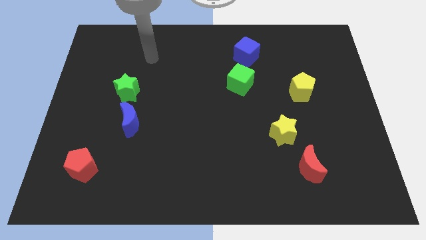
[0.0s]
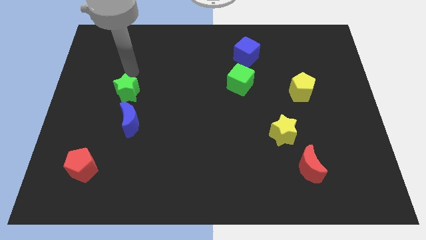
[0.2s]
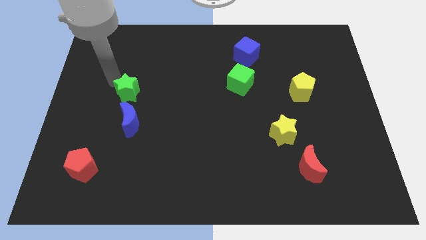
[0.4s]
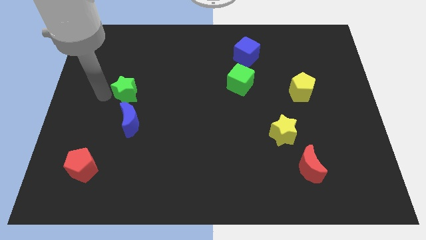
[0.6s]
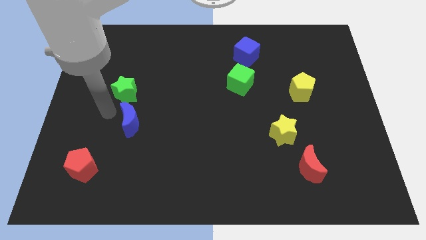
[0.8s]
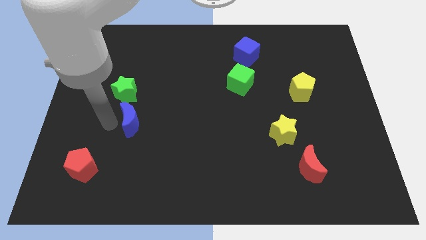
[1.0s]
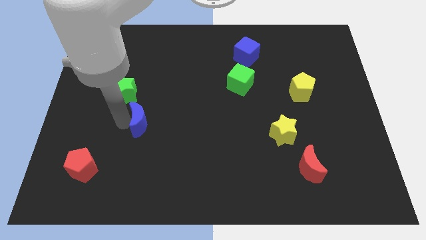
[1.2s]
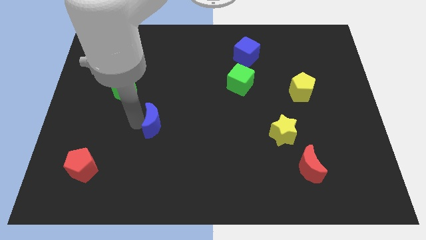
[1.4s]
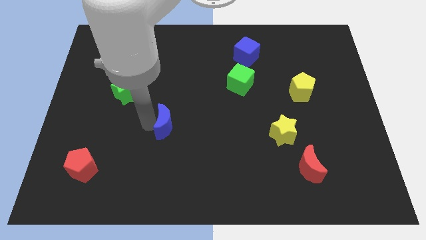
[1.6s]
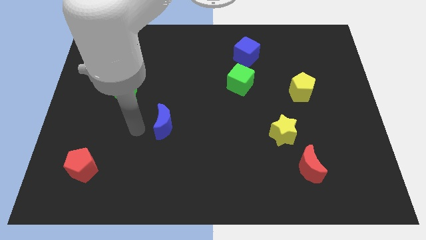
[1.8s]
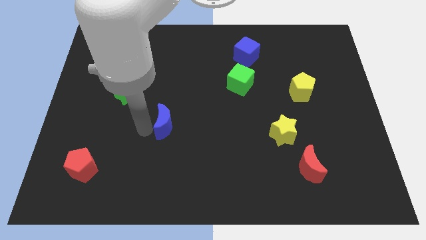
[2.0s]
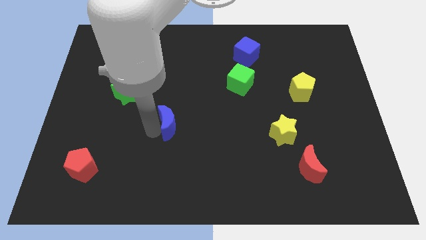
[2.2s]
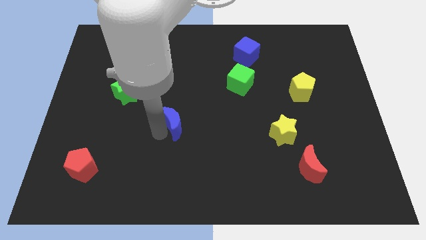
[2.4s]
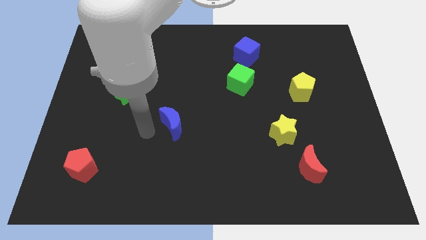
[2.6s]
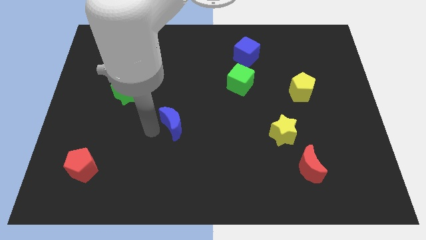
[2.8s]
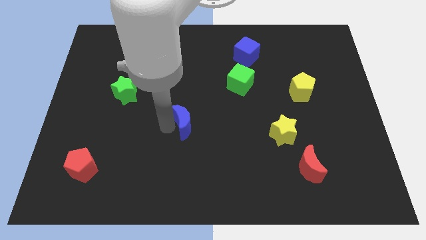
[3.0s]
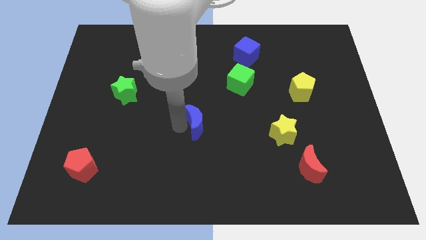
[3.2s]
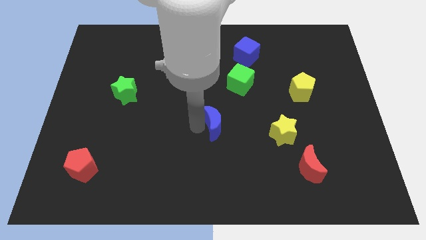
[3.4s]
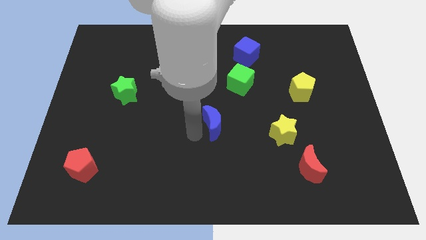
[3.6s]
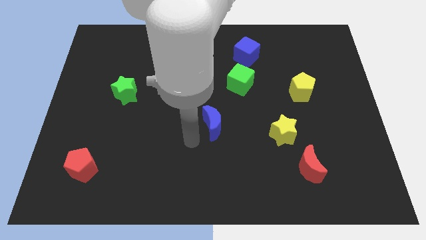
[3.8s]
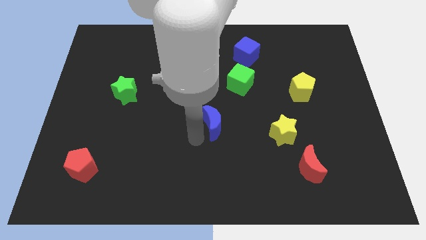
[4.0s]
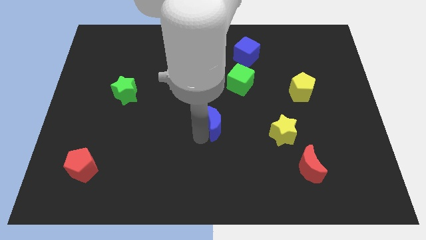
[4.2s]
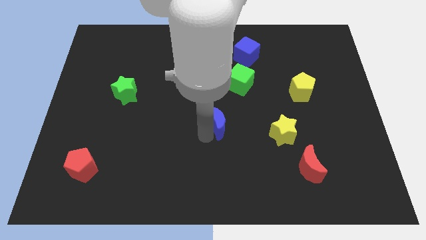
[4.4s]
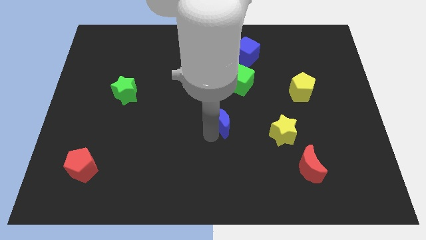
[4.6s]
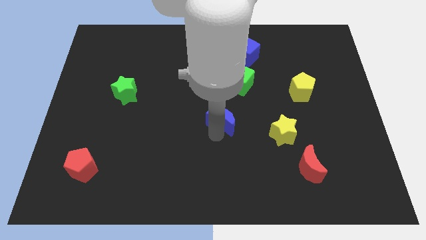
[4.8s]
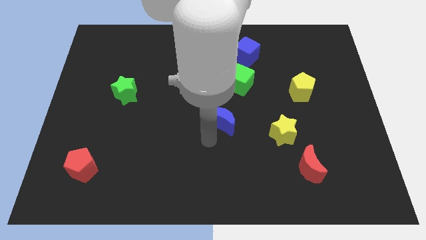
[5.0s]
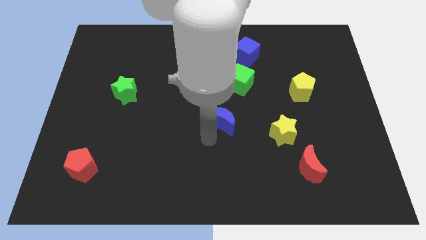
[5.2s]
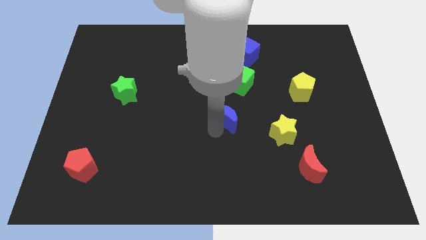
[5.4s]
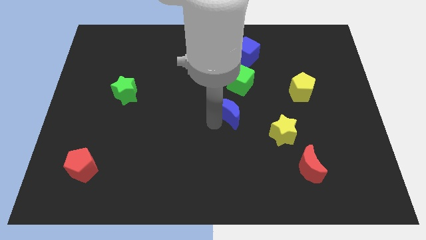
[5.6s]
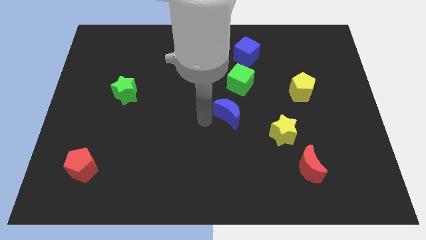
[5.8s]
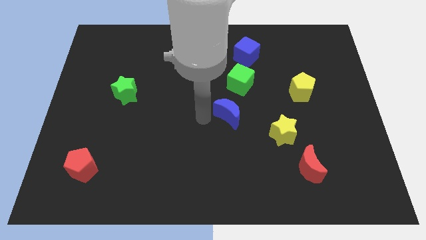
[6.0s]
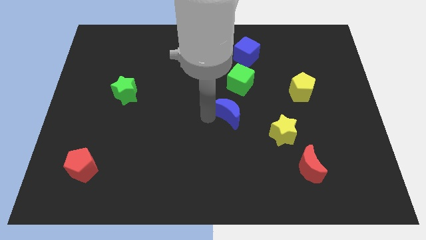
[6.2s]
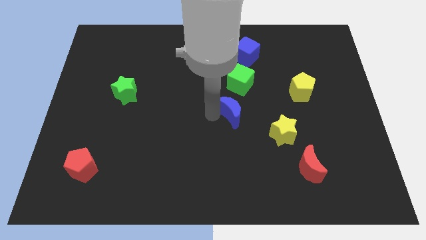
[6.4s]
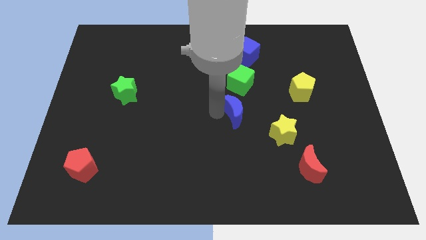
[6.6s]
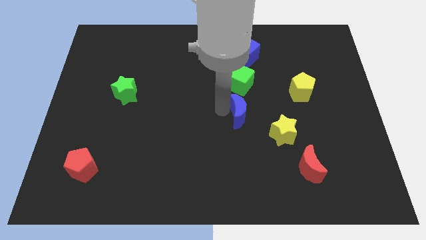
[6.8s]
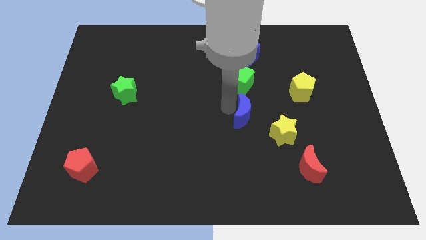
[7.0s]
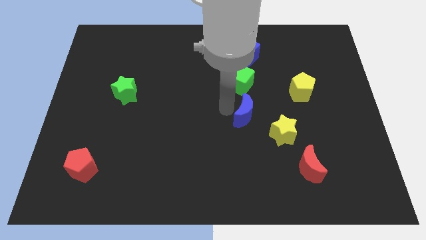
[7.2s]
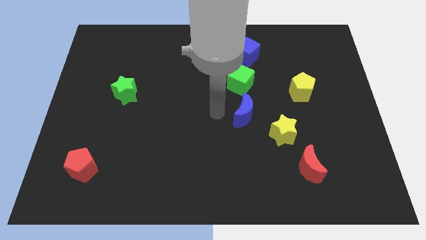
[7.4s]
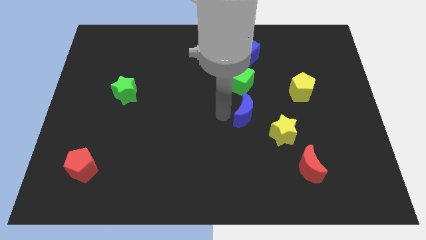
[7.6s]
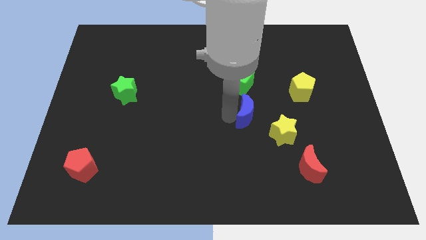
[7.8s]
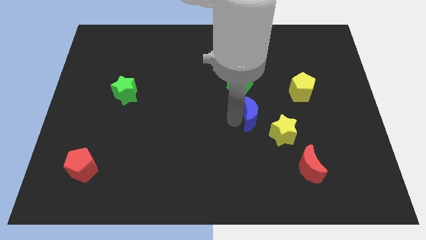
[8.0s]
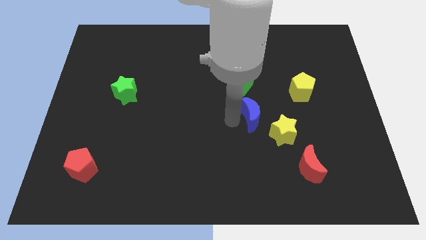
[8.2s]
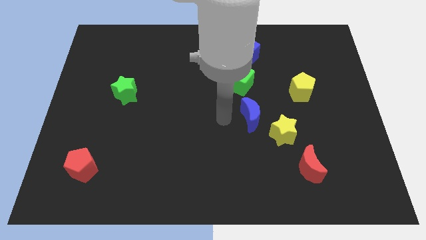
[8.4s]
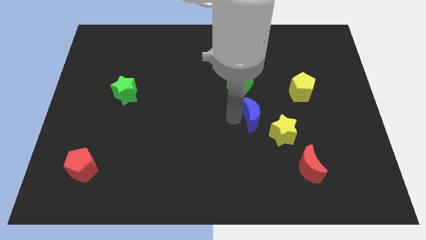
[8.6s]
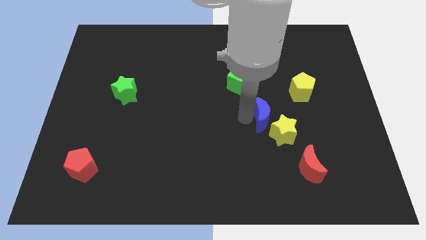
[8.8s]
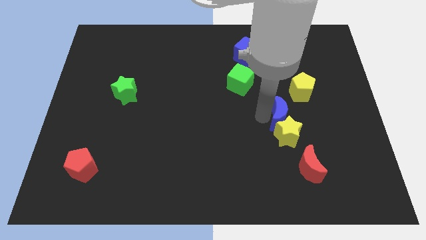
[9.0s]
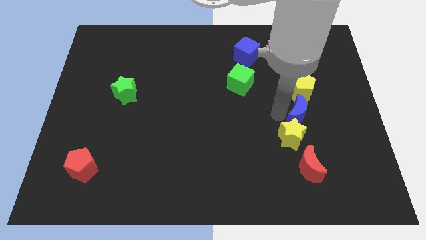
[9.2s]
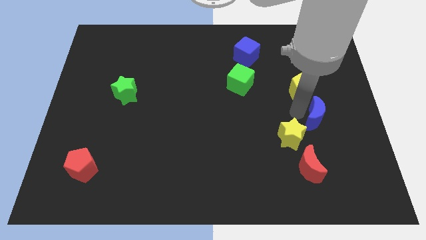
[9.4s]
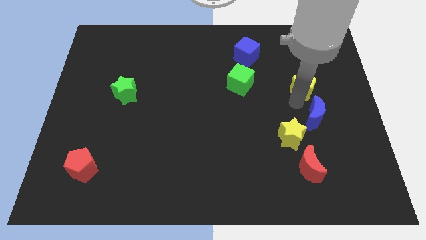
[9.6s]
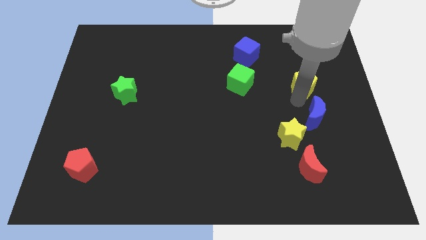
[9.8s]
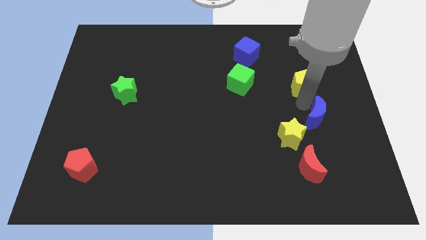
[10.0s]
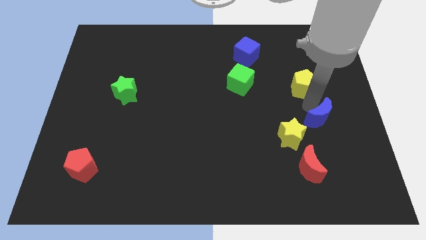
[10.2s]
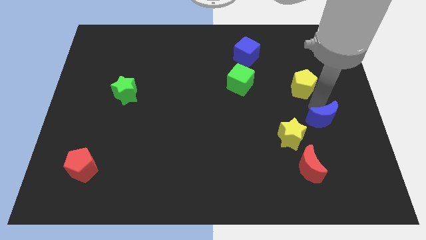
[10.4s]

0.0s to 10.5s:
slide the blue moon right of the yellow star

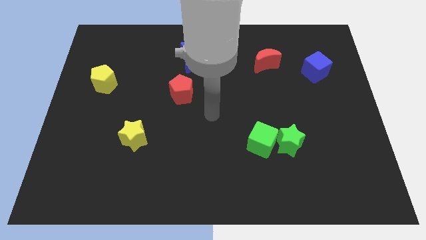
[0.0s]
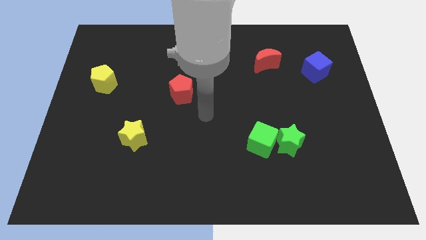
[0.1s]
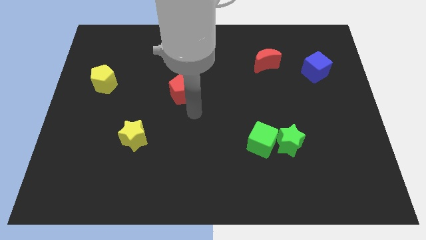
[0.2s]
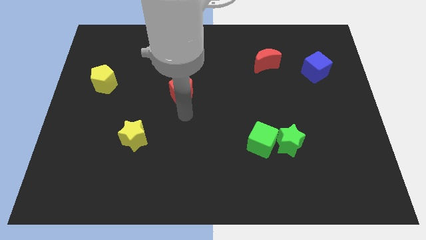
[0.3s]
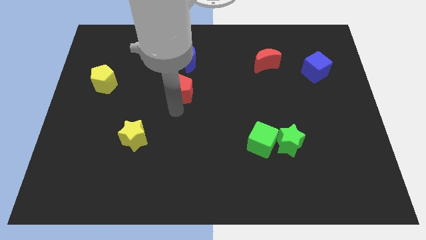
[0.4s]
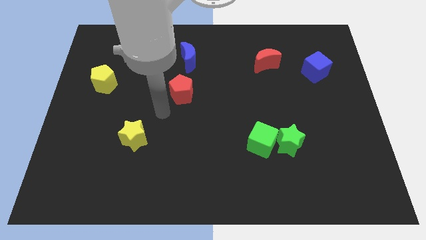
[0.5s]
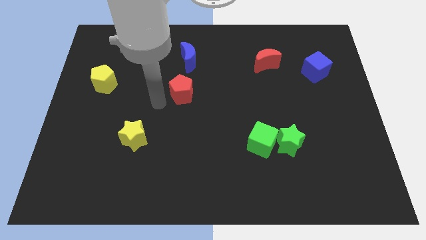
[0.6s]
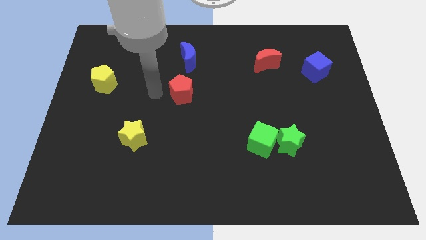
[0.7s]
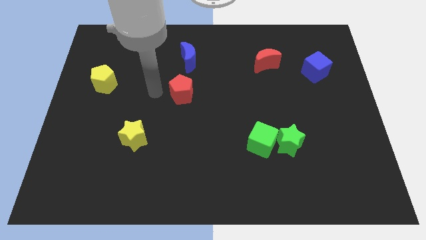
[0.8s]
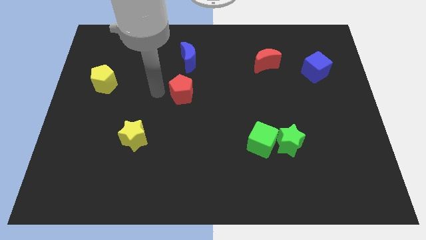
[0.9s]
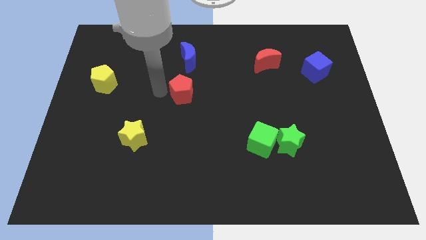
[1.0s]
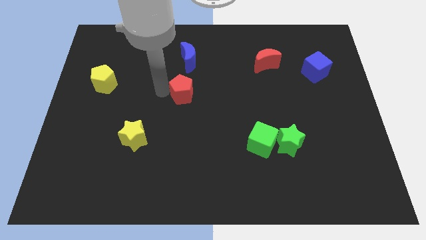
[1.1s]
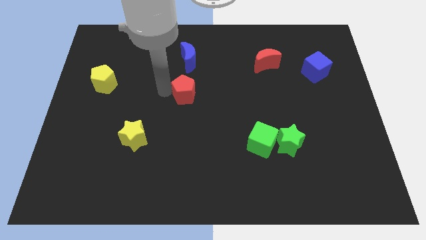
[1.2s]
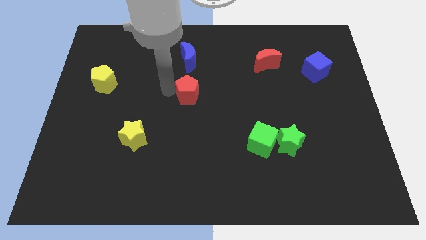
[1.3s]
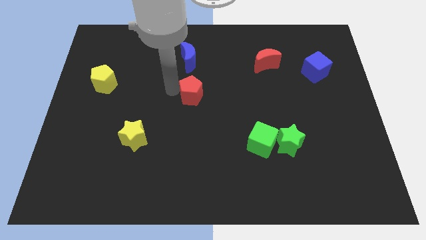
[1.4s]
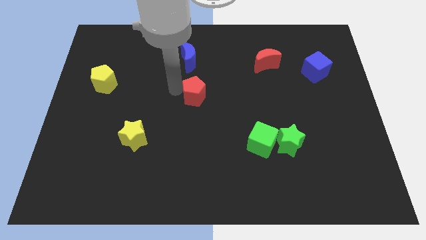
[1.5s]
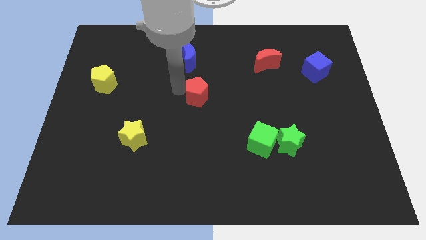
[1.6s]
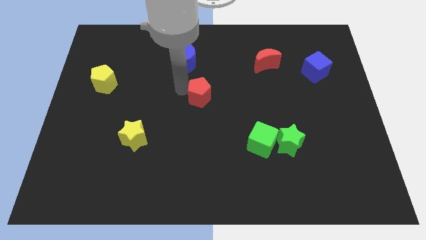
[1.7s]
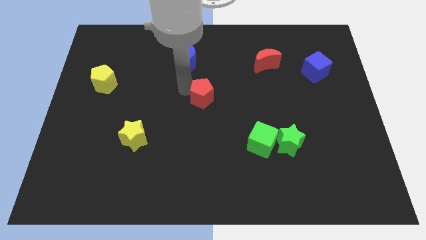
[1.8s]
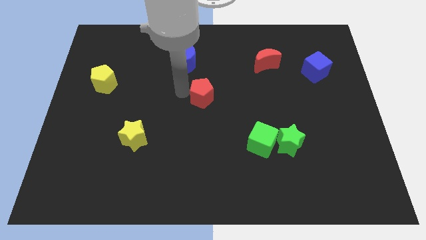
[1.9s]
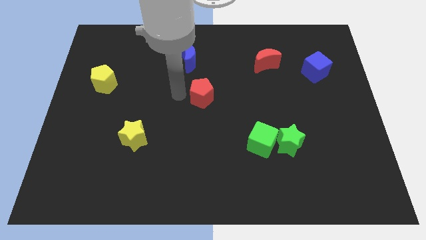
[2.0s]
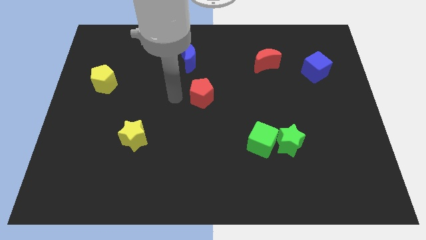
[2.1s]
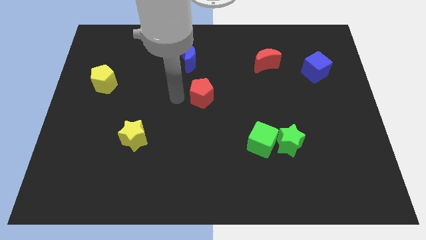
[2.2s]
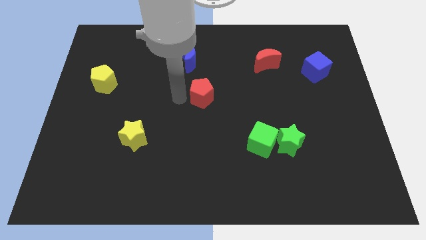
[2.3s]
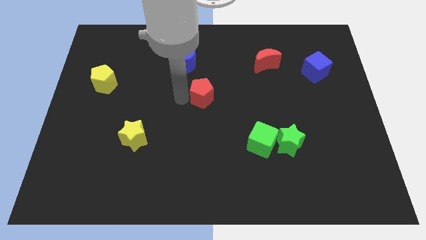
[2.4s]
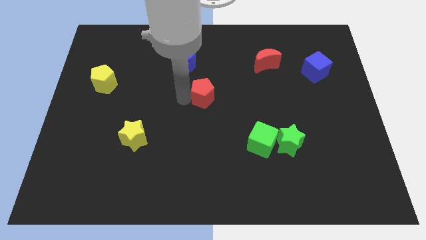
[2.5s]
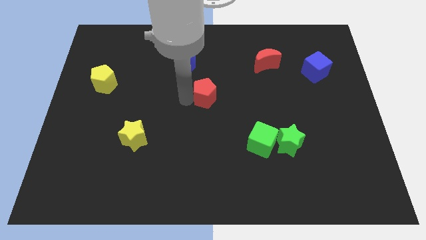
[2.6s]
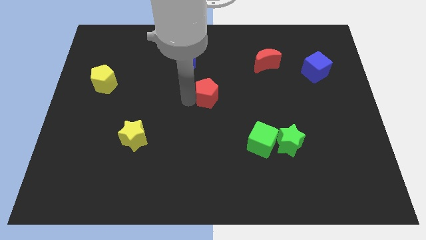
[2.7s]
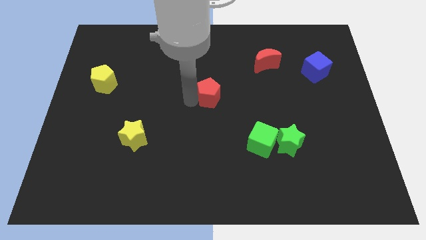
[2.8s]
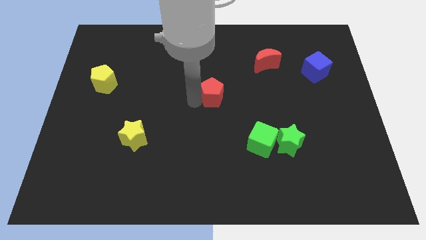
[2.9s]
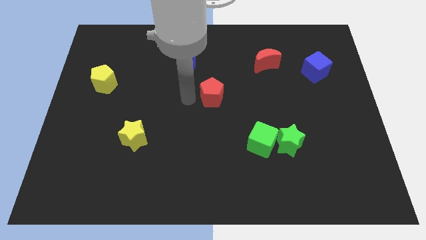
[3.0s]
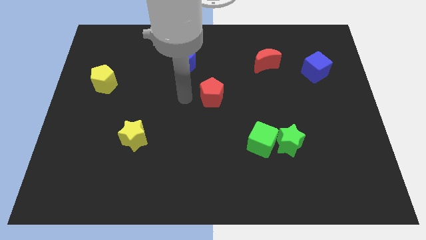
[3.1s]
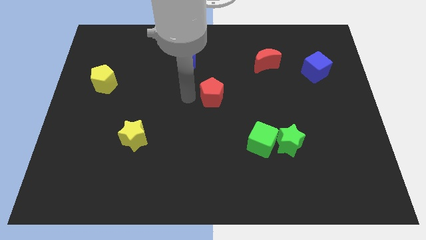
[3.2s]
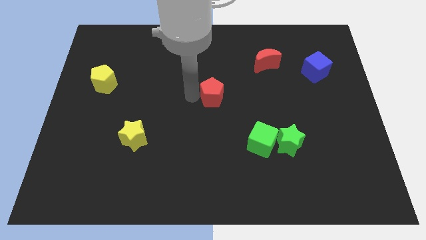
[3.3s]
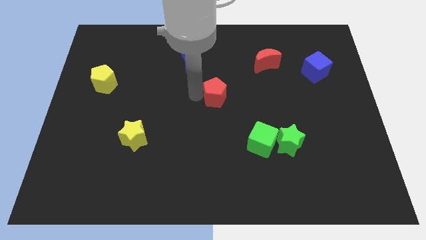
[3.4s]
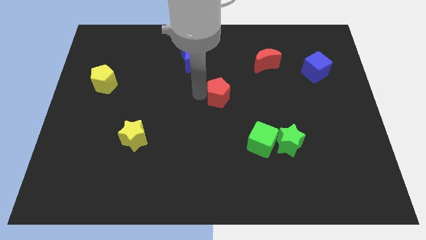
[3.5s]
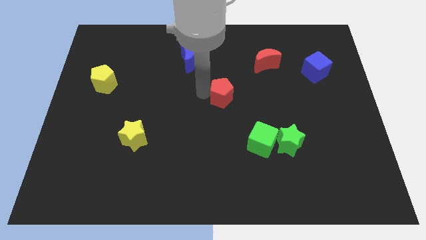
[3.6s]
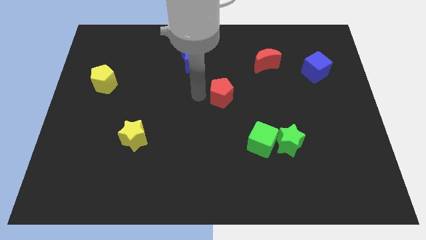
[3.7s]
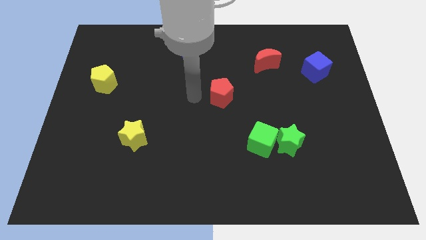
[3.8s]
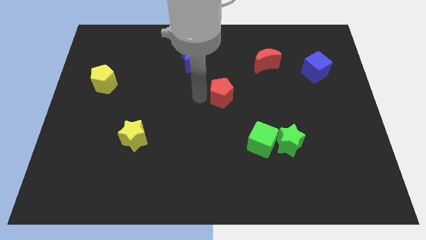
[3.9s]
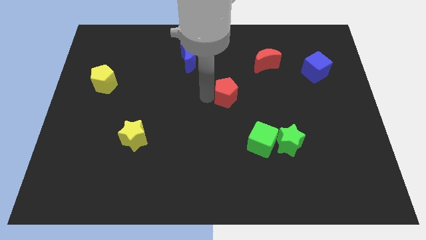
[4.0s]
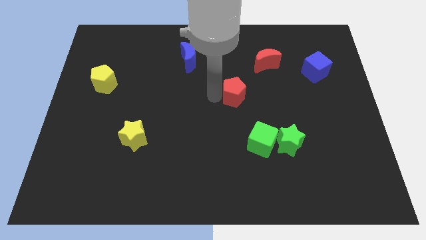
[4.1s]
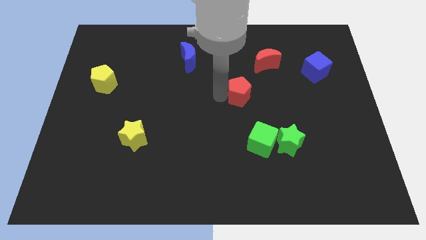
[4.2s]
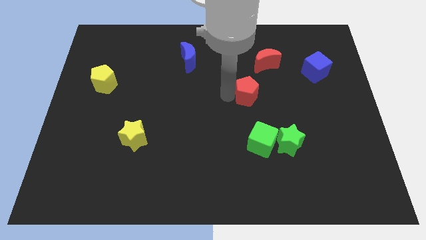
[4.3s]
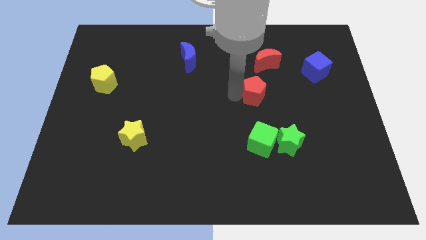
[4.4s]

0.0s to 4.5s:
push the red pentagon to the bottom of the red moon
